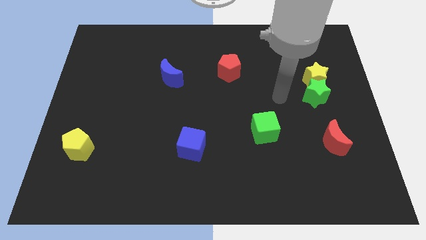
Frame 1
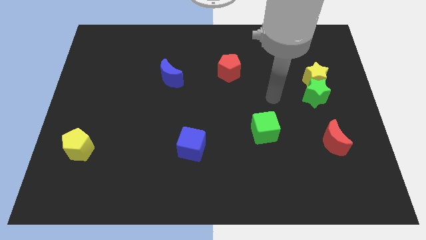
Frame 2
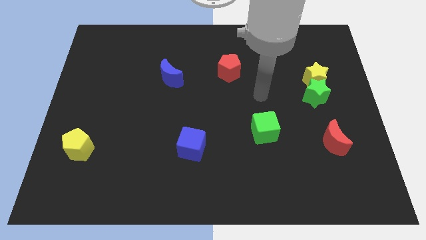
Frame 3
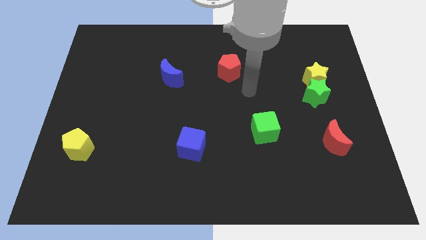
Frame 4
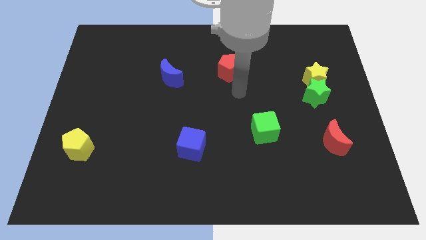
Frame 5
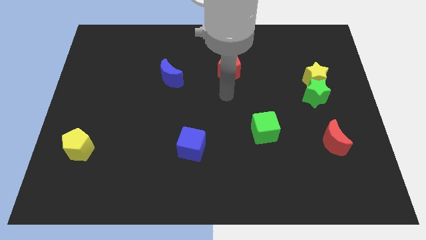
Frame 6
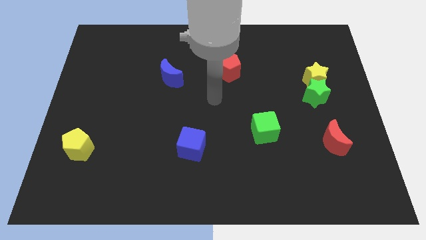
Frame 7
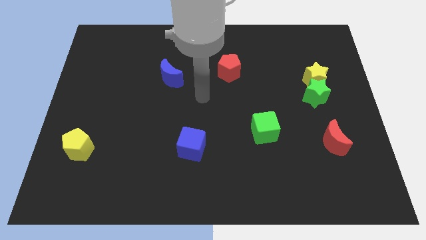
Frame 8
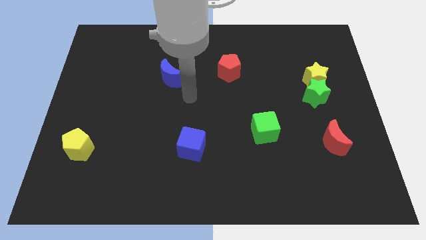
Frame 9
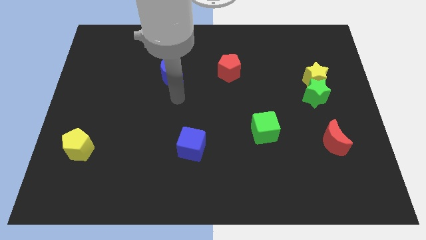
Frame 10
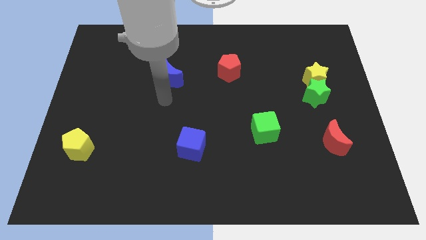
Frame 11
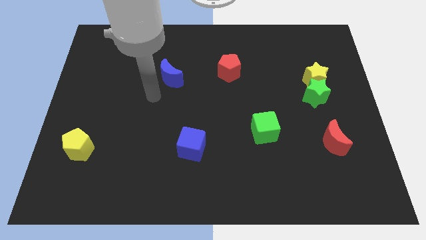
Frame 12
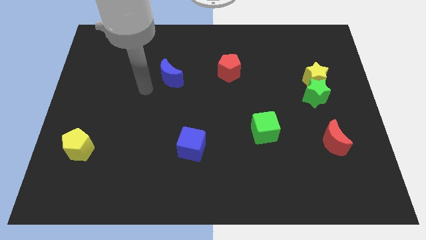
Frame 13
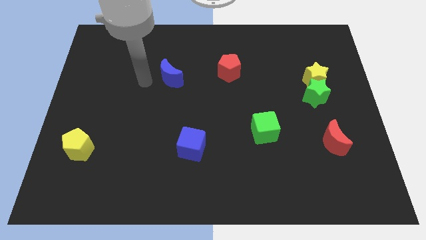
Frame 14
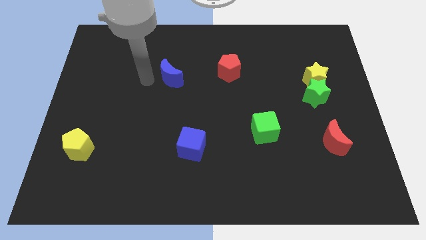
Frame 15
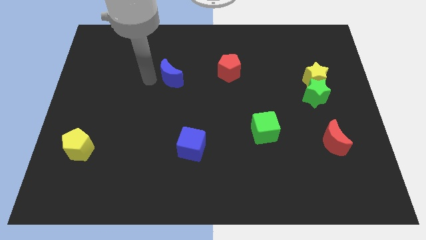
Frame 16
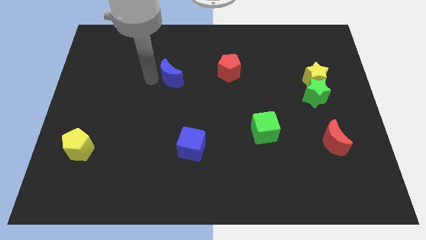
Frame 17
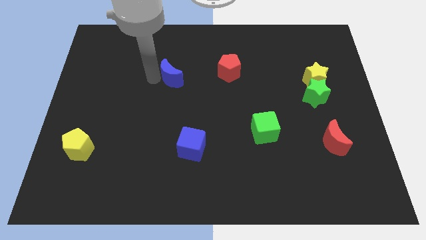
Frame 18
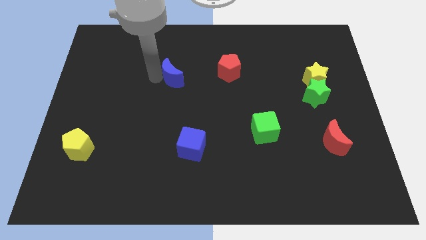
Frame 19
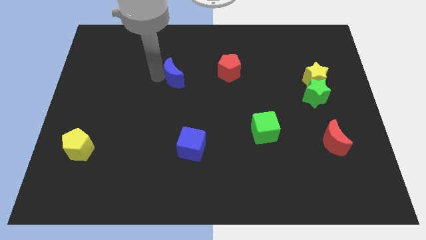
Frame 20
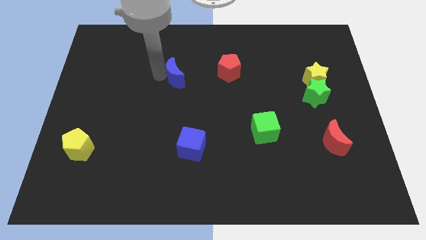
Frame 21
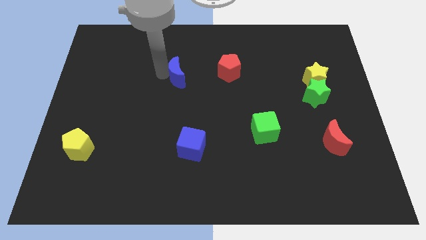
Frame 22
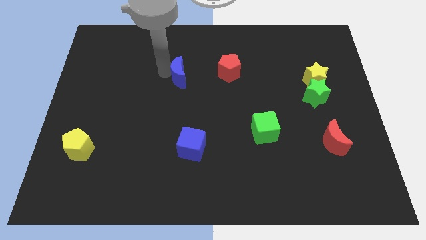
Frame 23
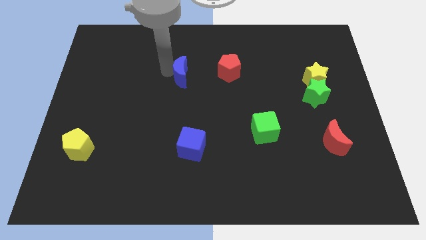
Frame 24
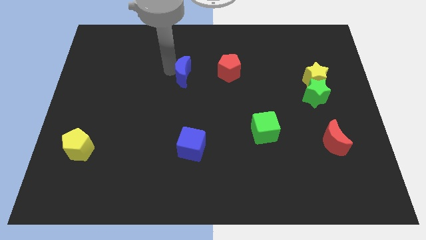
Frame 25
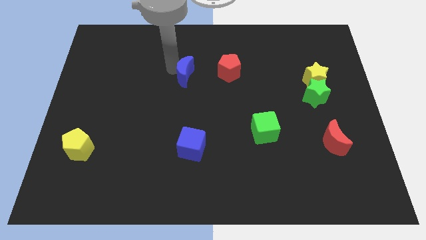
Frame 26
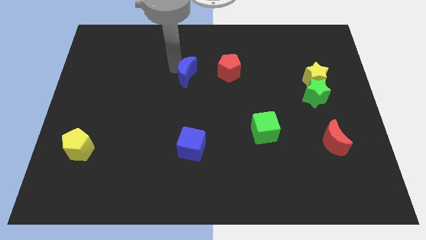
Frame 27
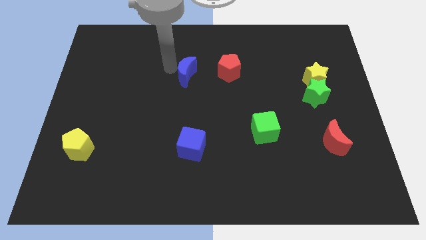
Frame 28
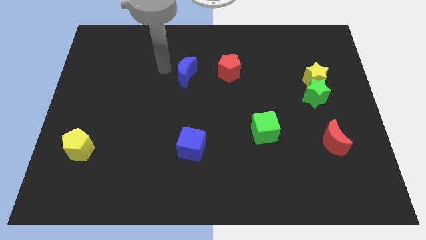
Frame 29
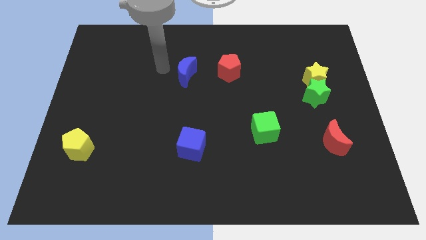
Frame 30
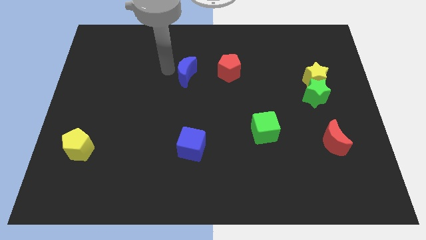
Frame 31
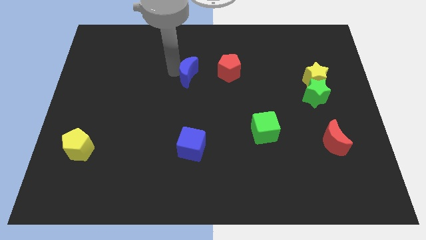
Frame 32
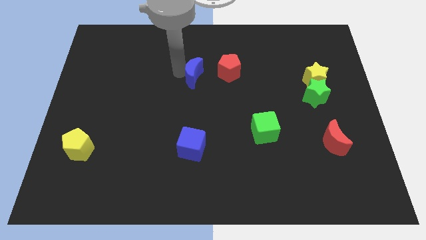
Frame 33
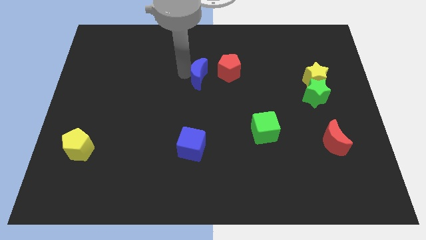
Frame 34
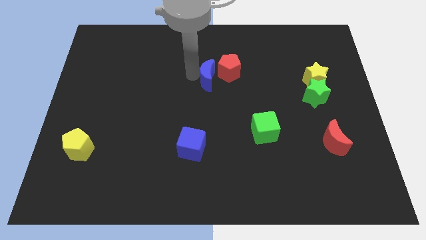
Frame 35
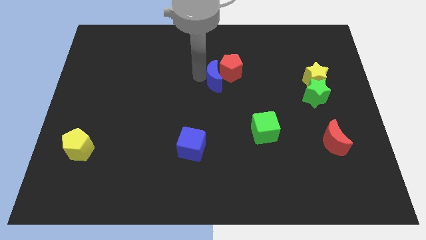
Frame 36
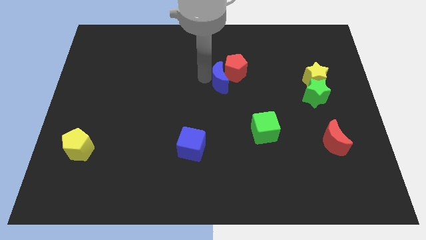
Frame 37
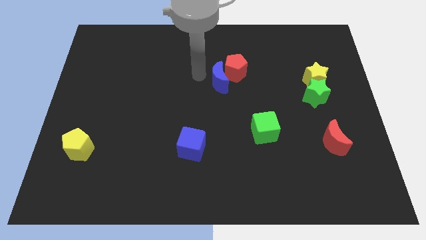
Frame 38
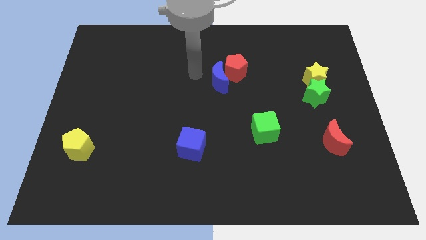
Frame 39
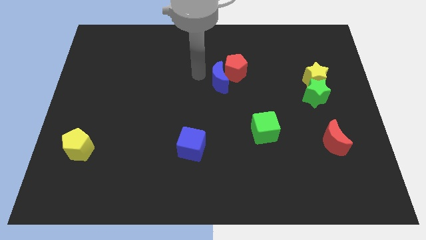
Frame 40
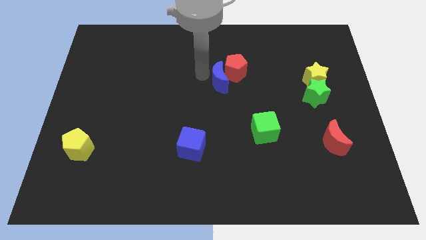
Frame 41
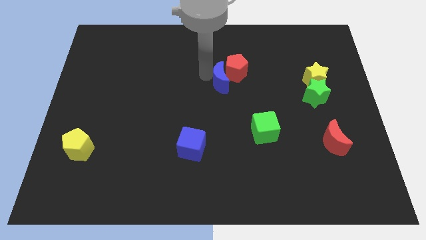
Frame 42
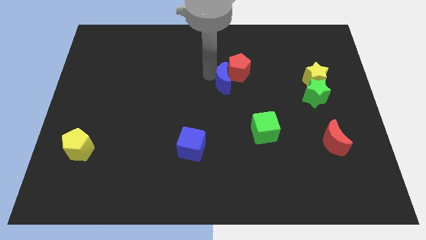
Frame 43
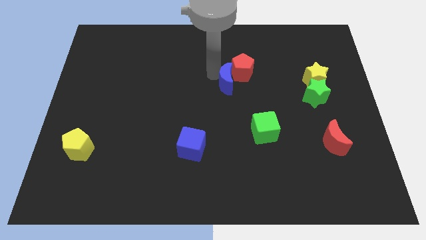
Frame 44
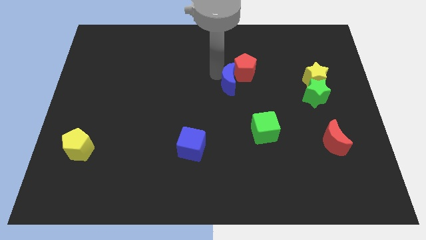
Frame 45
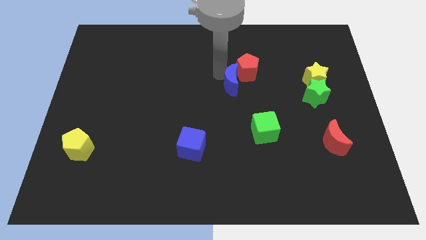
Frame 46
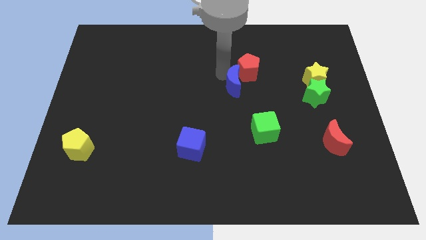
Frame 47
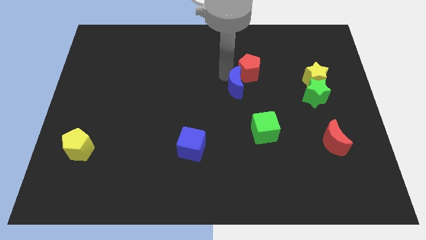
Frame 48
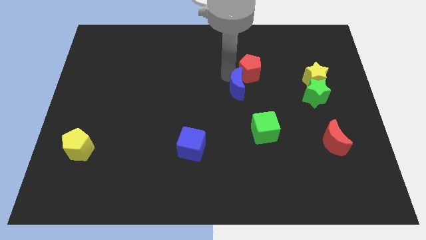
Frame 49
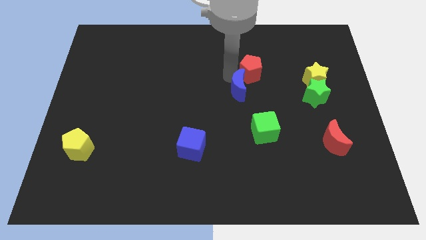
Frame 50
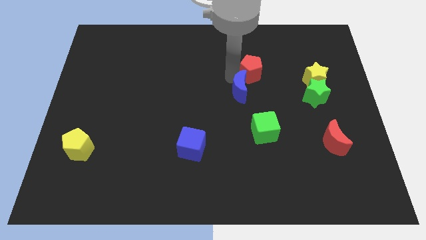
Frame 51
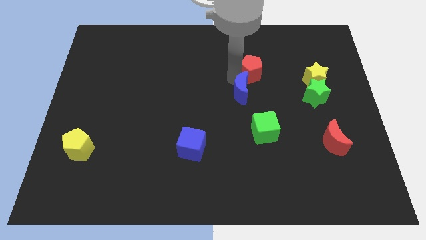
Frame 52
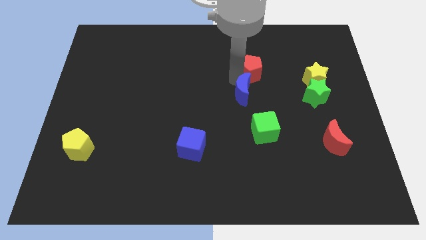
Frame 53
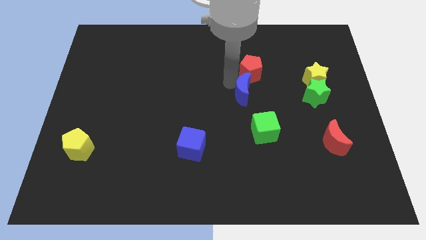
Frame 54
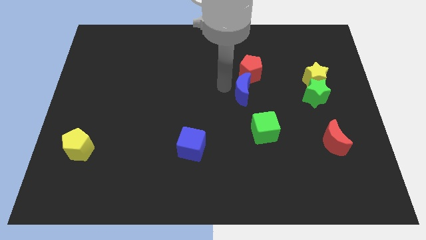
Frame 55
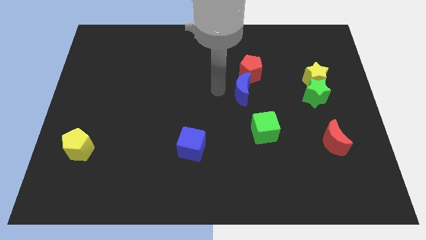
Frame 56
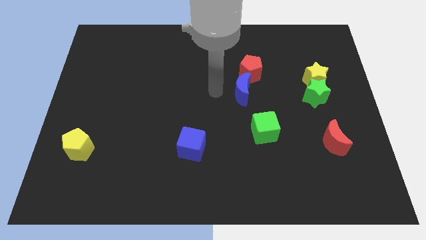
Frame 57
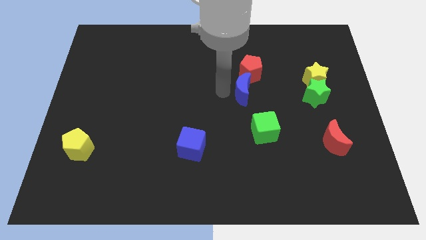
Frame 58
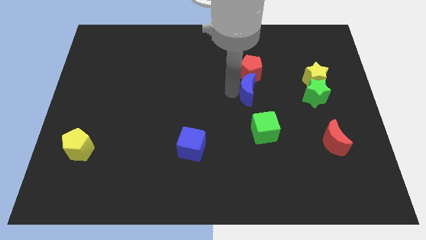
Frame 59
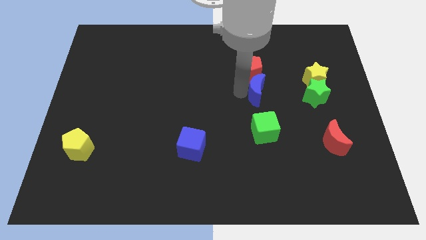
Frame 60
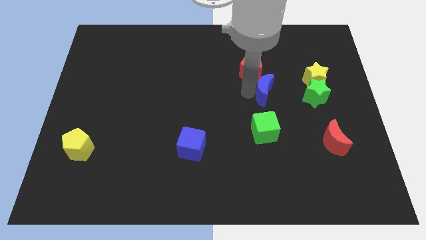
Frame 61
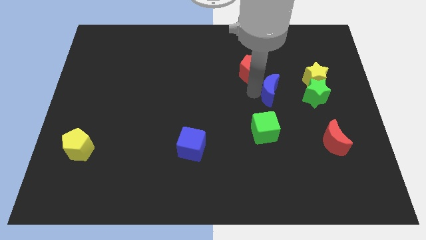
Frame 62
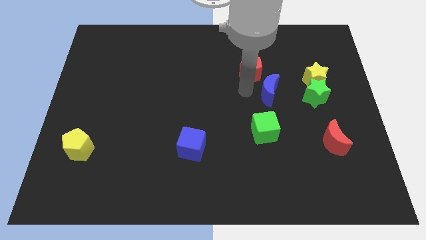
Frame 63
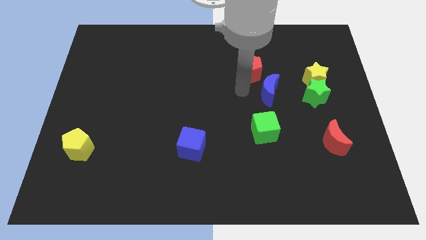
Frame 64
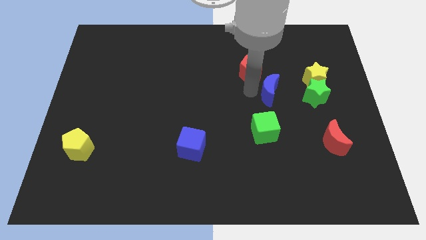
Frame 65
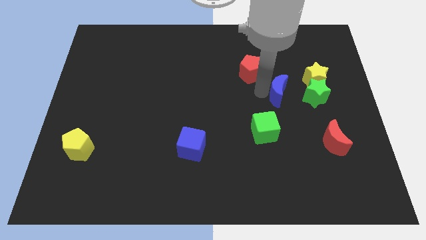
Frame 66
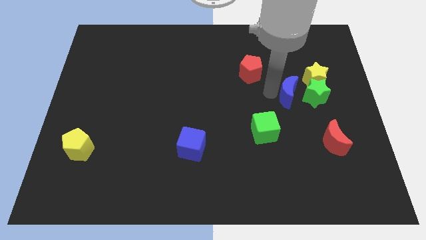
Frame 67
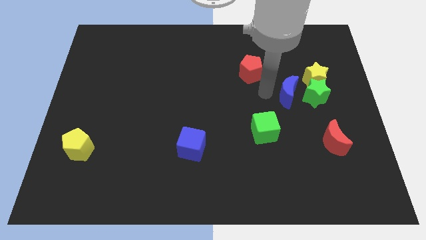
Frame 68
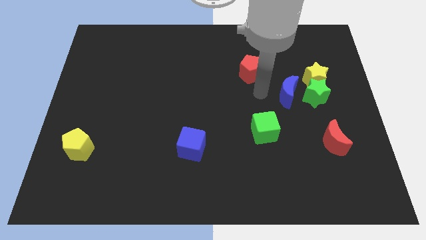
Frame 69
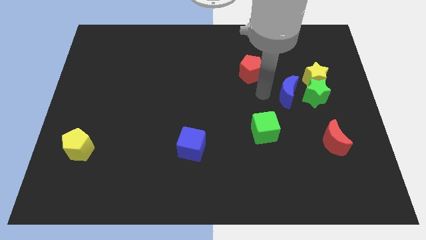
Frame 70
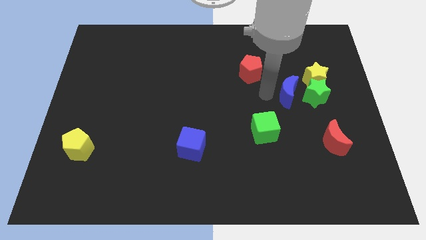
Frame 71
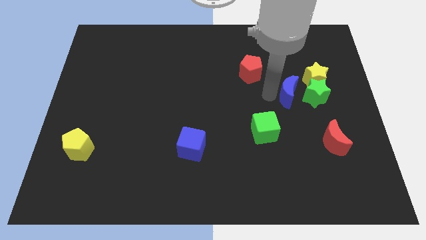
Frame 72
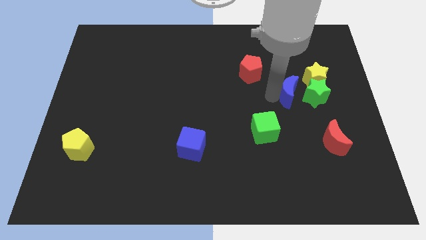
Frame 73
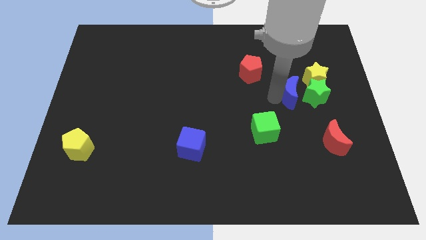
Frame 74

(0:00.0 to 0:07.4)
push the blue moon to the green star
